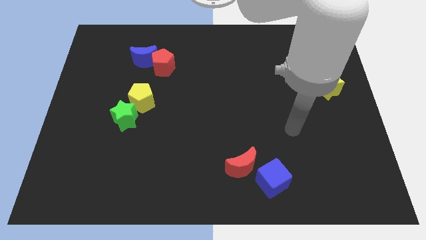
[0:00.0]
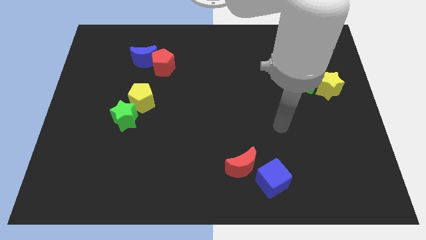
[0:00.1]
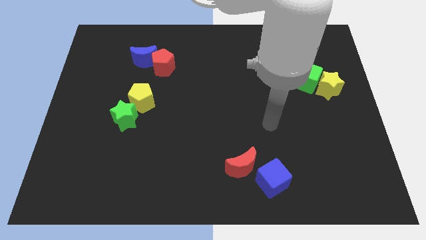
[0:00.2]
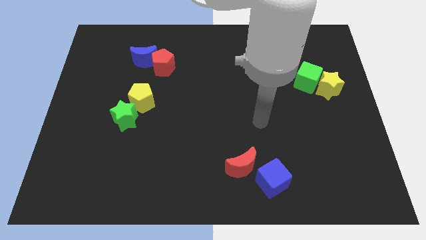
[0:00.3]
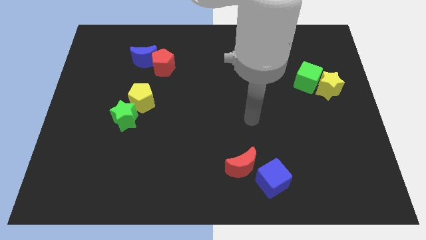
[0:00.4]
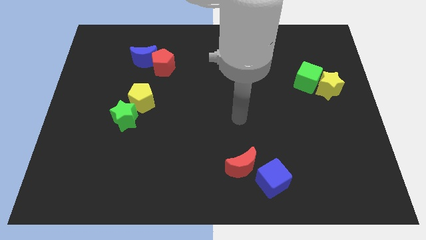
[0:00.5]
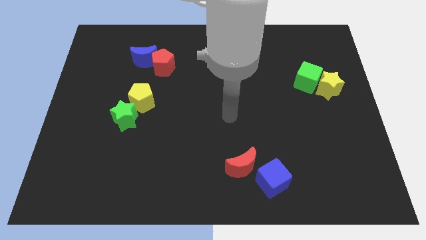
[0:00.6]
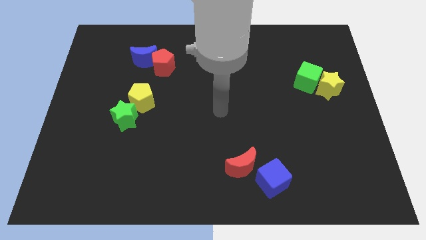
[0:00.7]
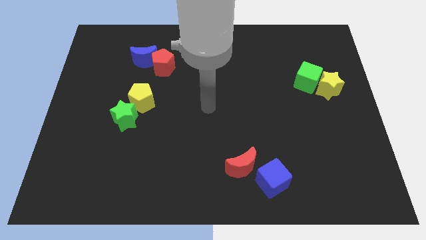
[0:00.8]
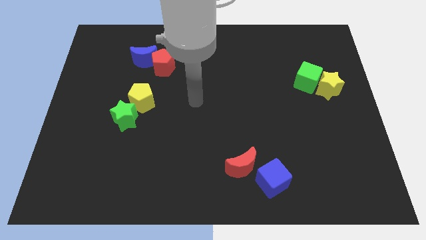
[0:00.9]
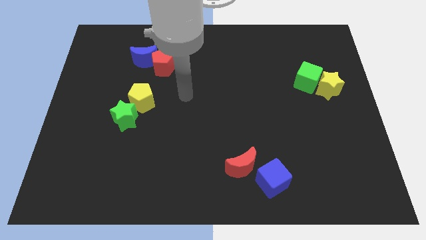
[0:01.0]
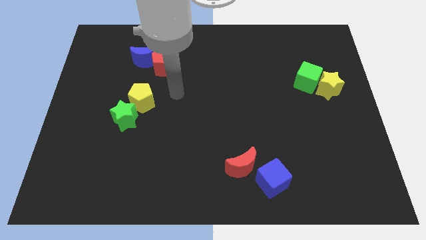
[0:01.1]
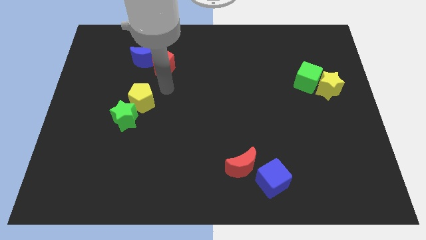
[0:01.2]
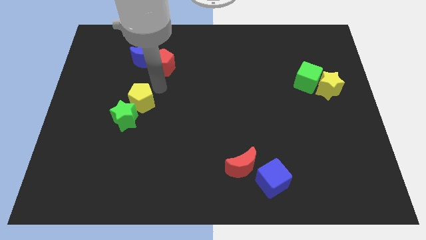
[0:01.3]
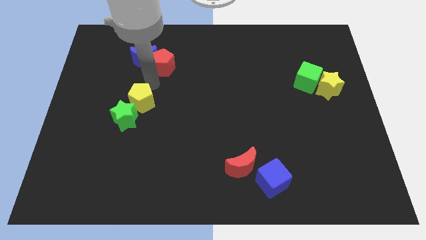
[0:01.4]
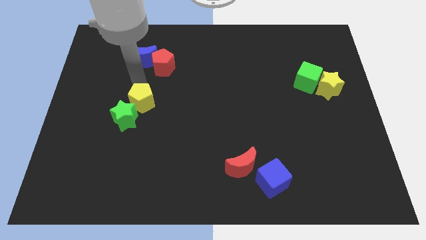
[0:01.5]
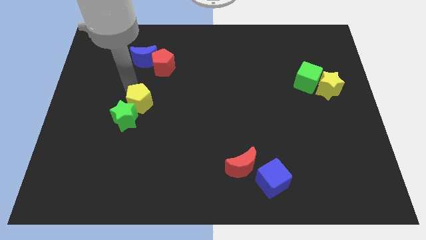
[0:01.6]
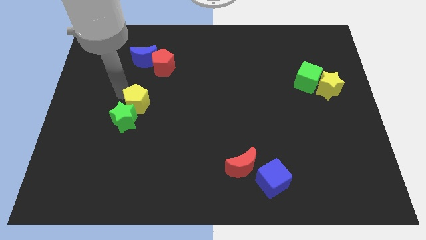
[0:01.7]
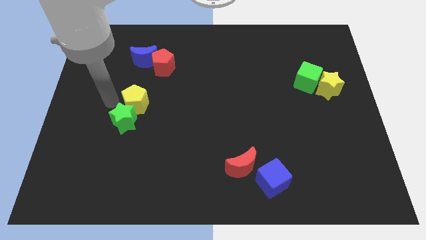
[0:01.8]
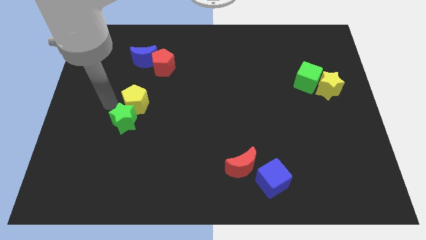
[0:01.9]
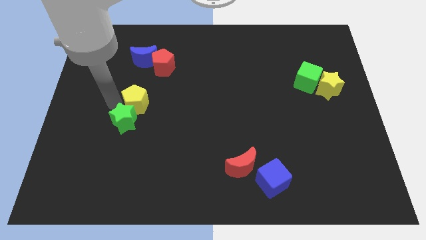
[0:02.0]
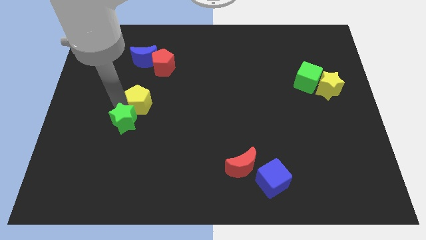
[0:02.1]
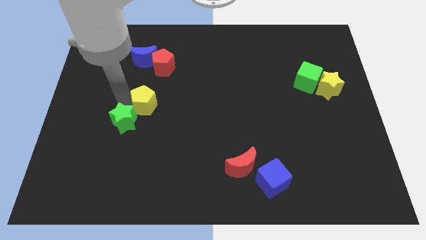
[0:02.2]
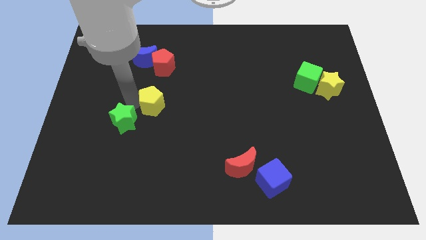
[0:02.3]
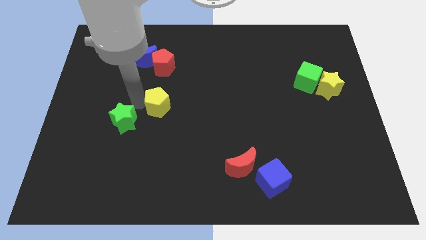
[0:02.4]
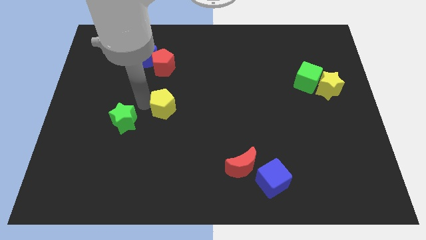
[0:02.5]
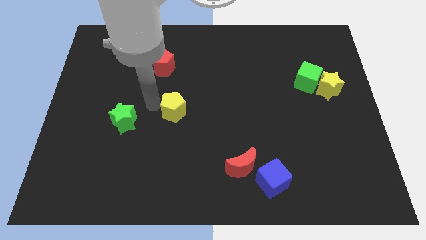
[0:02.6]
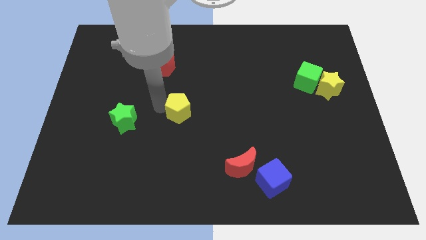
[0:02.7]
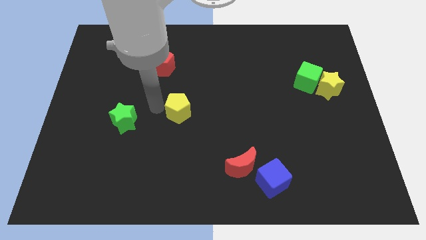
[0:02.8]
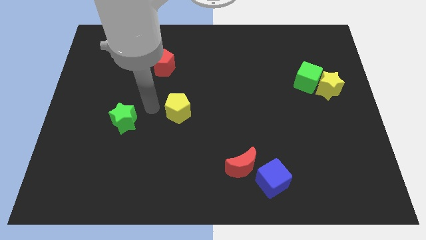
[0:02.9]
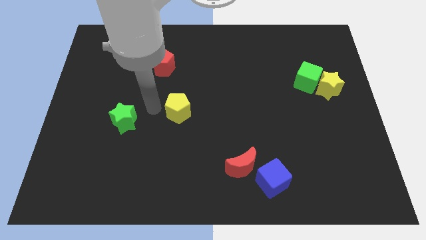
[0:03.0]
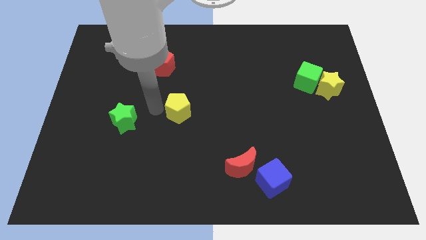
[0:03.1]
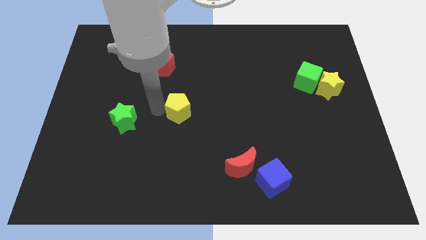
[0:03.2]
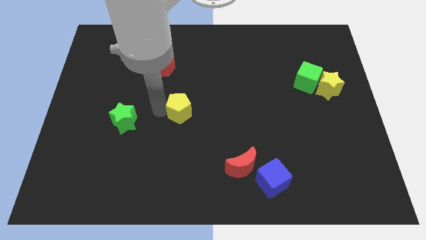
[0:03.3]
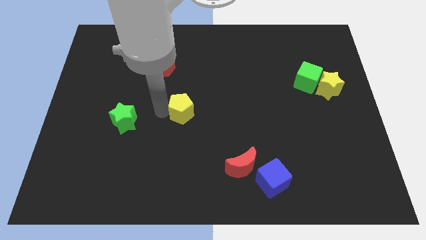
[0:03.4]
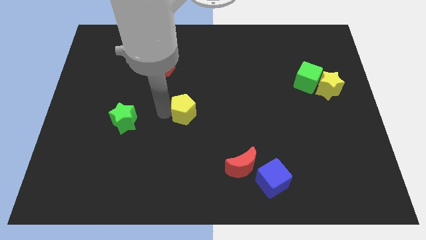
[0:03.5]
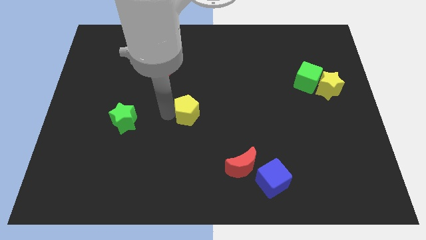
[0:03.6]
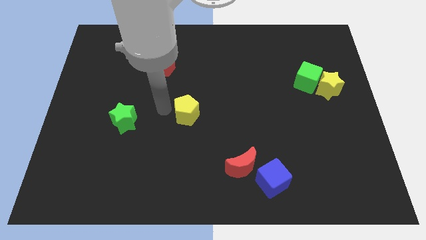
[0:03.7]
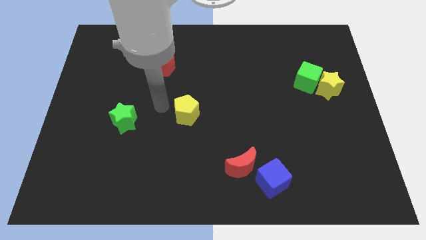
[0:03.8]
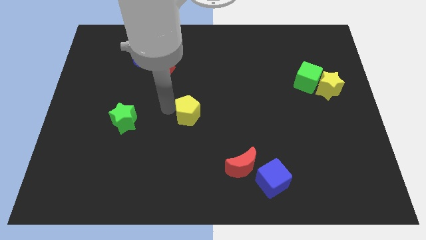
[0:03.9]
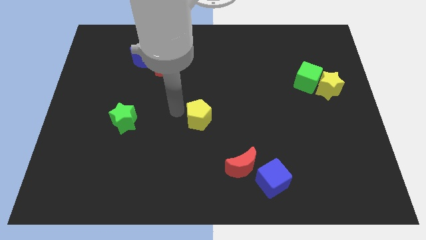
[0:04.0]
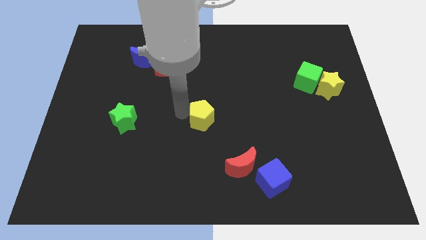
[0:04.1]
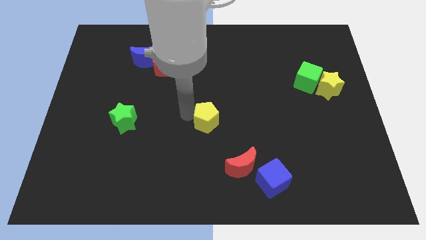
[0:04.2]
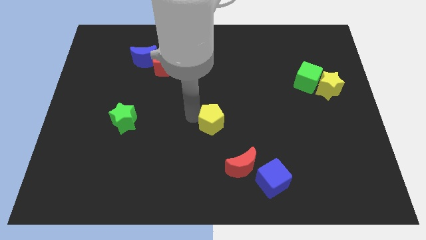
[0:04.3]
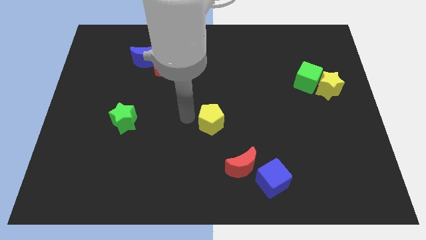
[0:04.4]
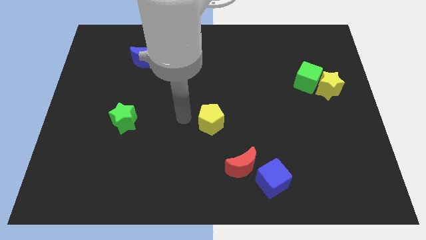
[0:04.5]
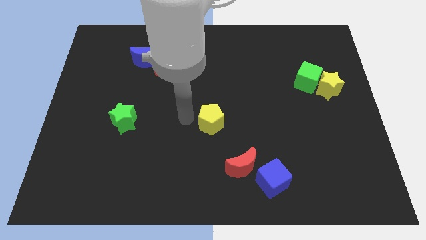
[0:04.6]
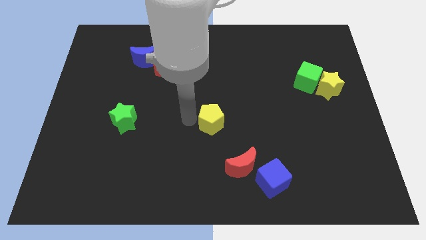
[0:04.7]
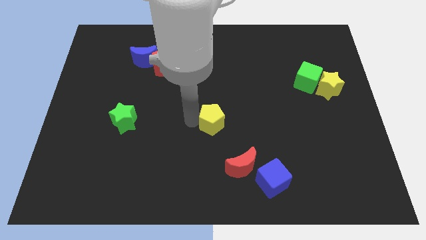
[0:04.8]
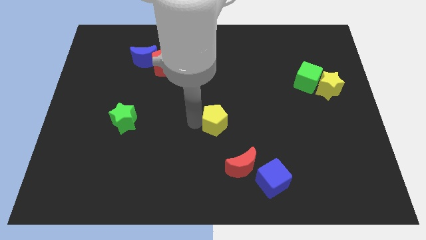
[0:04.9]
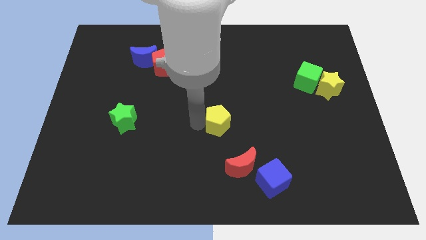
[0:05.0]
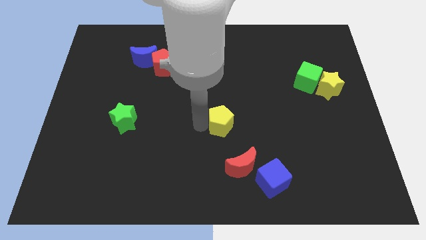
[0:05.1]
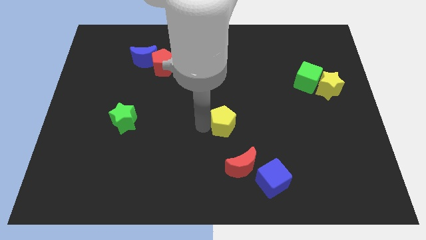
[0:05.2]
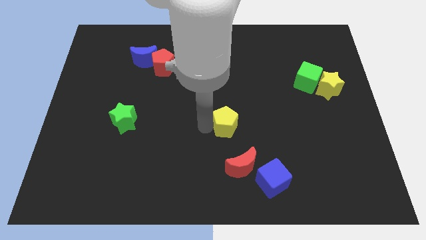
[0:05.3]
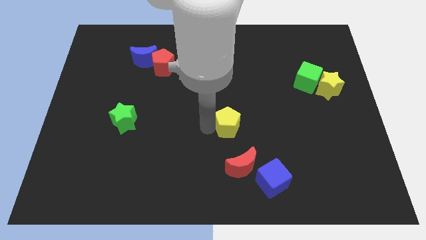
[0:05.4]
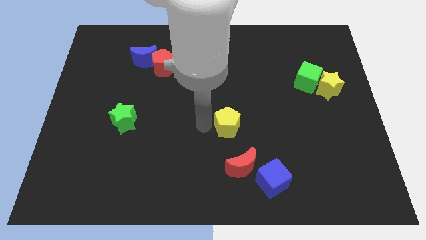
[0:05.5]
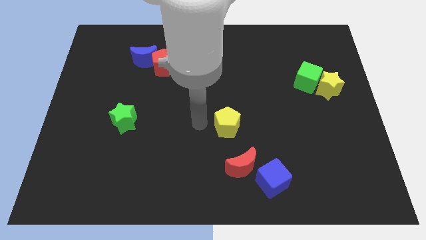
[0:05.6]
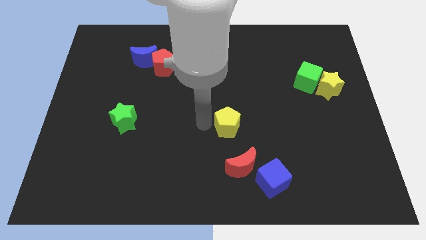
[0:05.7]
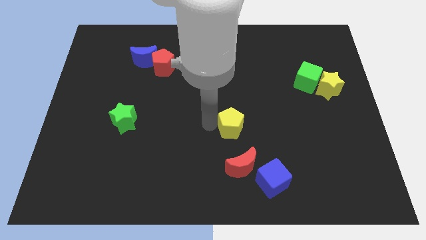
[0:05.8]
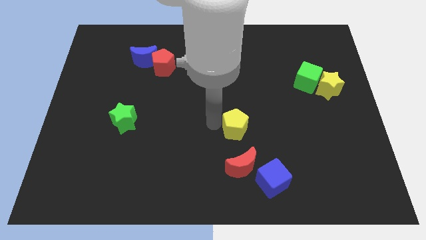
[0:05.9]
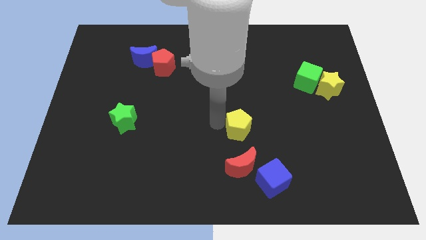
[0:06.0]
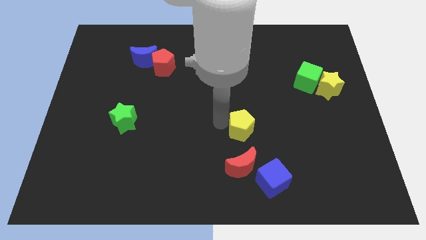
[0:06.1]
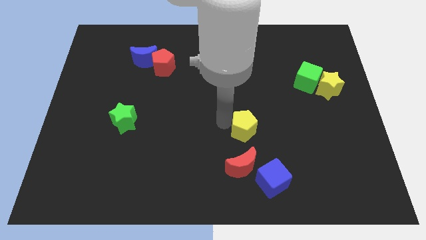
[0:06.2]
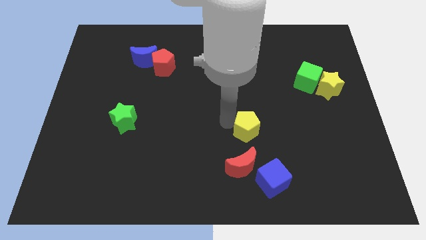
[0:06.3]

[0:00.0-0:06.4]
slide the yellow pentagon above the blue cube
